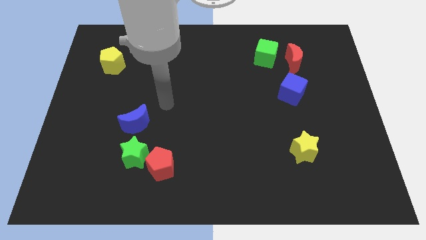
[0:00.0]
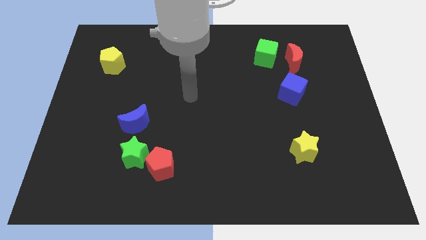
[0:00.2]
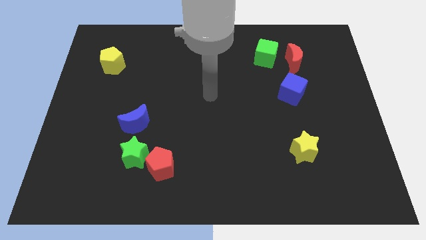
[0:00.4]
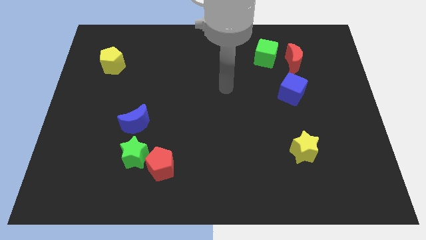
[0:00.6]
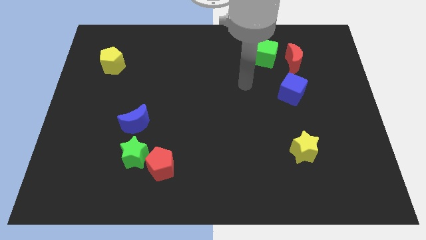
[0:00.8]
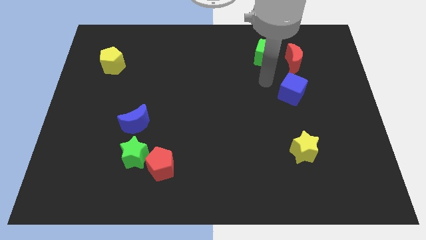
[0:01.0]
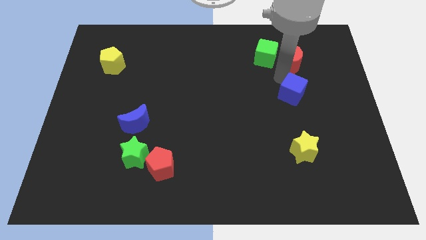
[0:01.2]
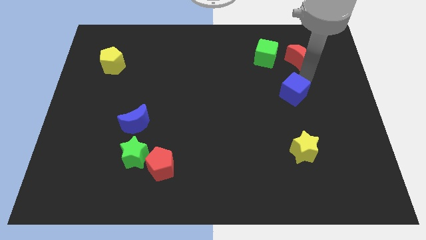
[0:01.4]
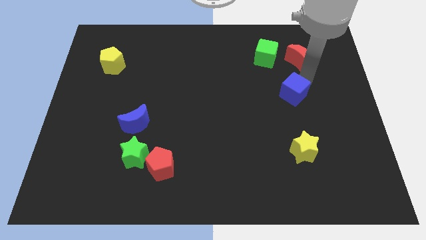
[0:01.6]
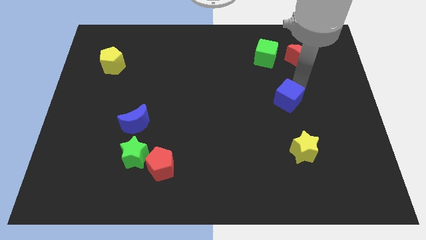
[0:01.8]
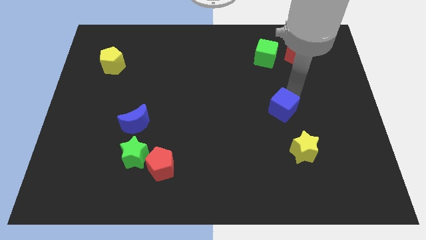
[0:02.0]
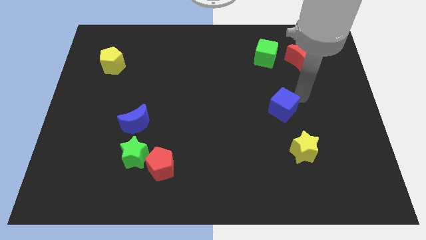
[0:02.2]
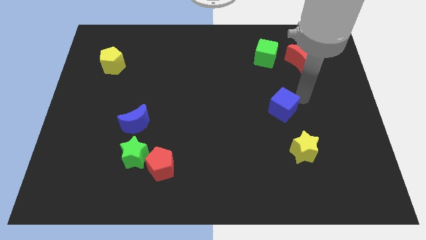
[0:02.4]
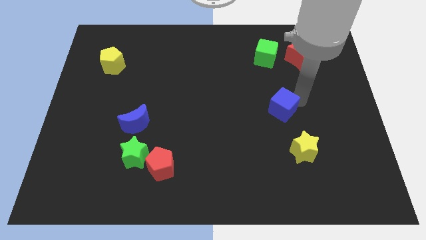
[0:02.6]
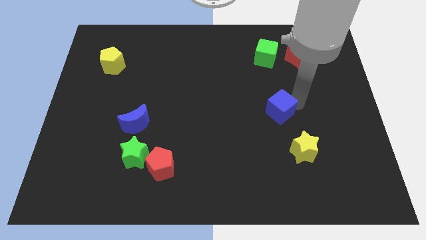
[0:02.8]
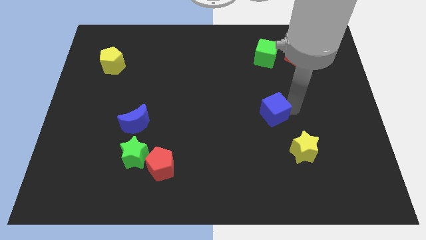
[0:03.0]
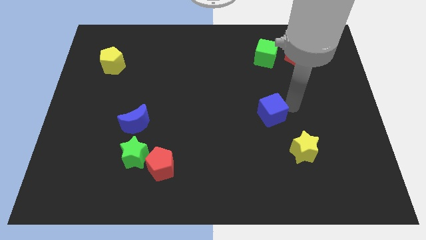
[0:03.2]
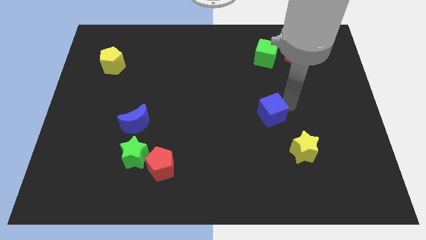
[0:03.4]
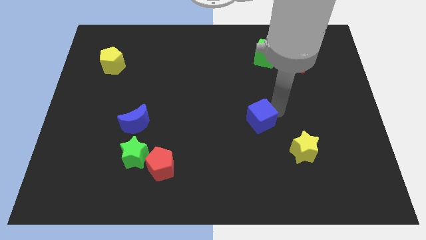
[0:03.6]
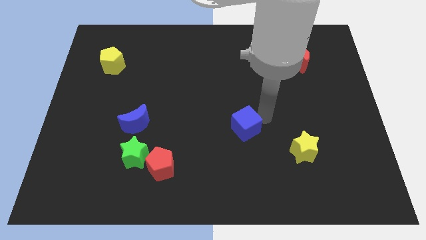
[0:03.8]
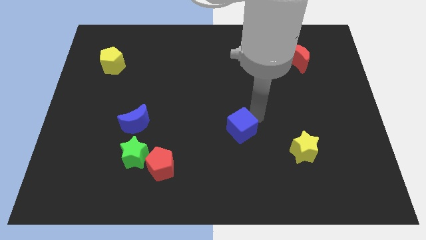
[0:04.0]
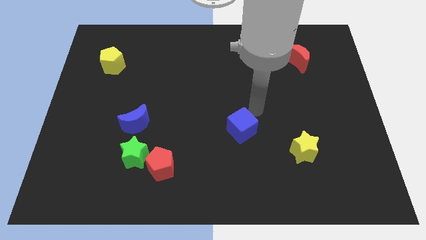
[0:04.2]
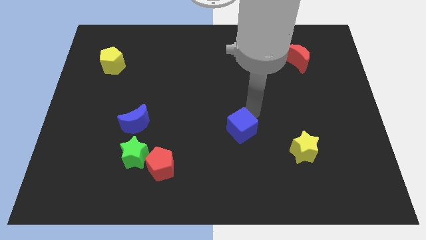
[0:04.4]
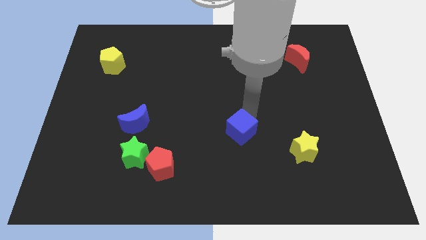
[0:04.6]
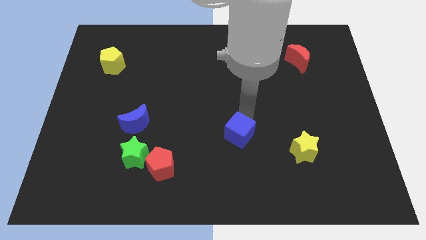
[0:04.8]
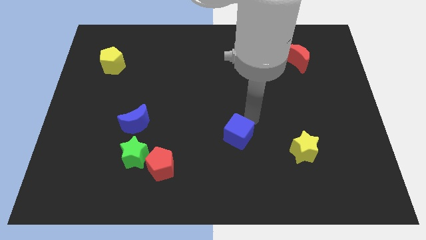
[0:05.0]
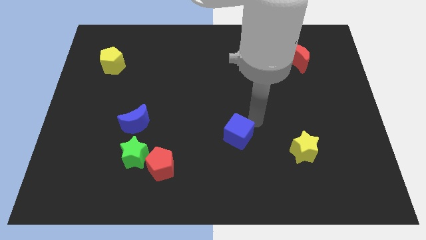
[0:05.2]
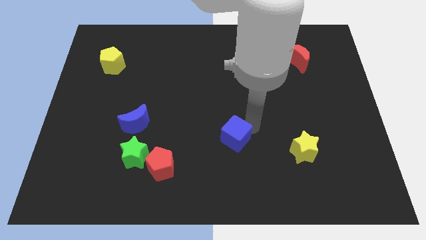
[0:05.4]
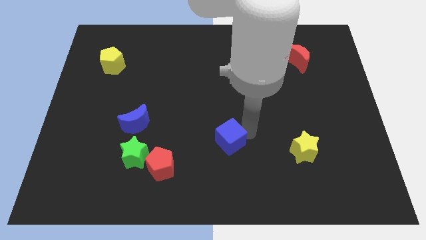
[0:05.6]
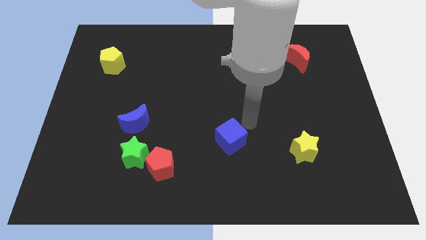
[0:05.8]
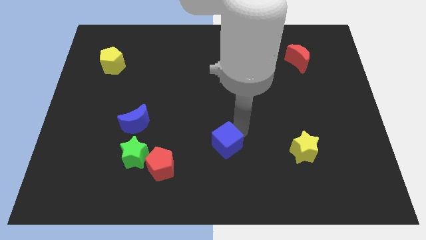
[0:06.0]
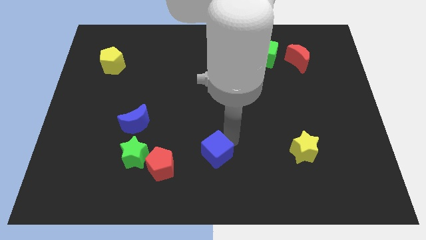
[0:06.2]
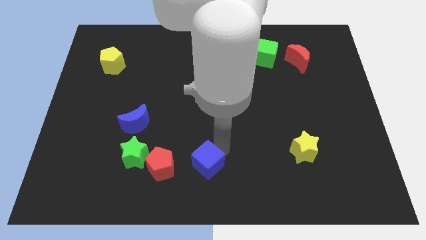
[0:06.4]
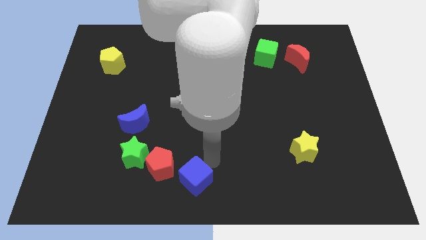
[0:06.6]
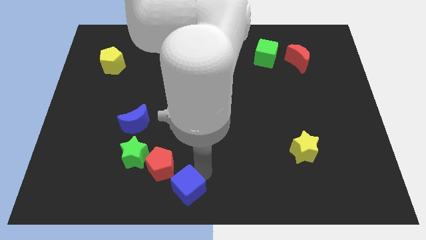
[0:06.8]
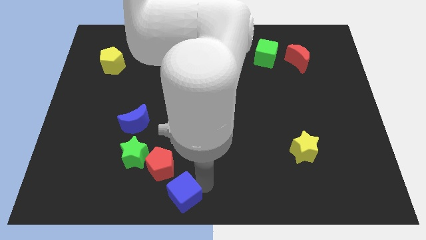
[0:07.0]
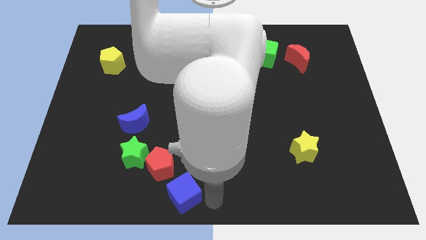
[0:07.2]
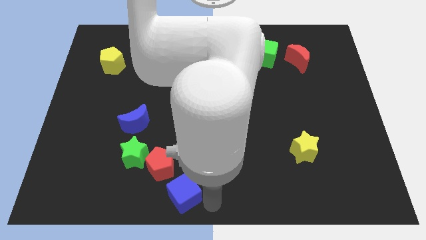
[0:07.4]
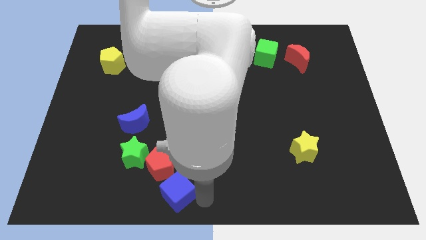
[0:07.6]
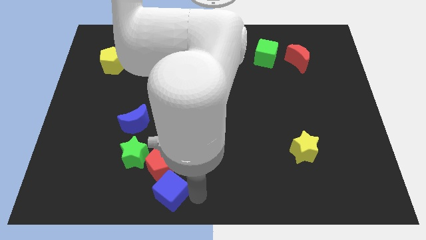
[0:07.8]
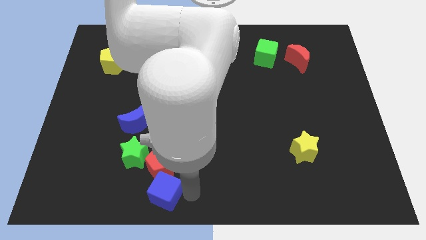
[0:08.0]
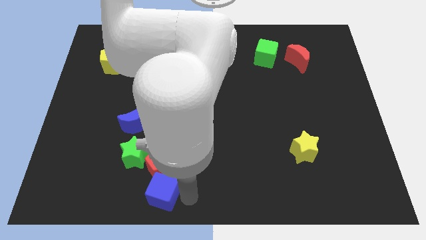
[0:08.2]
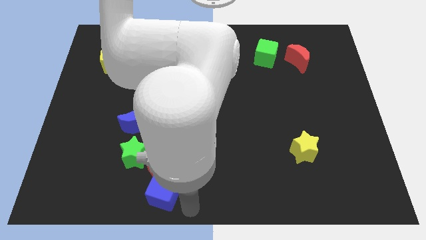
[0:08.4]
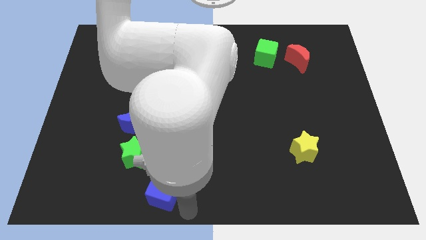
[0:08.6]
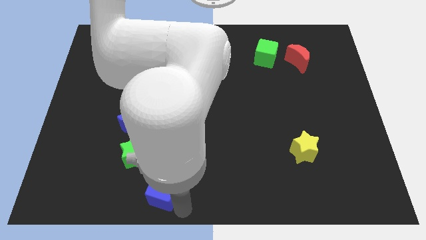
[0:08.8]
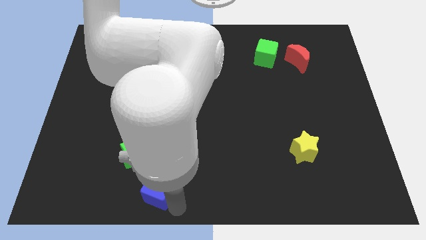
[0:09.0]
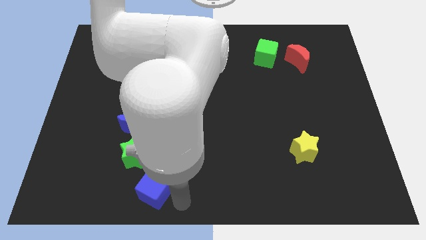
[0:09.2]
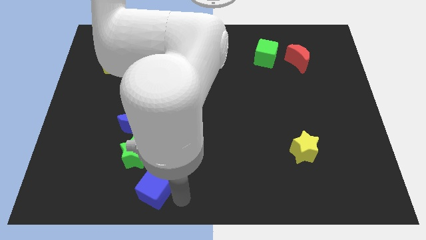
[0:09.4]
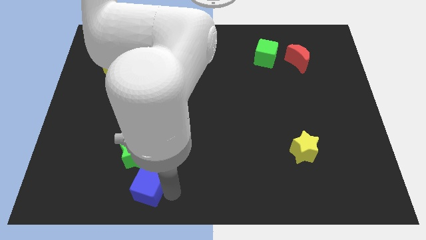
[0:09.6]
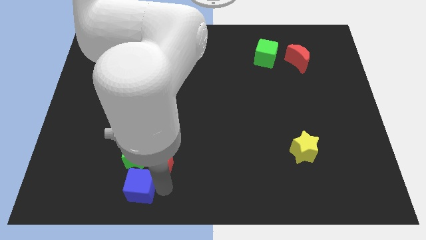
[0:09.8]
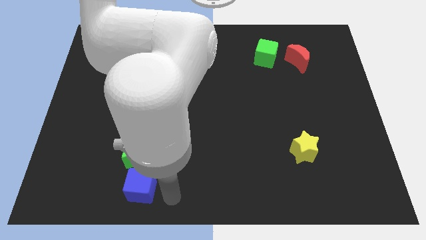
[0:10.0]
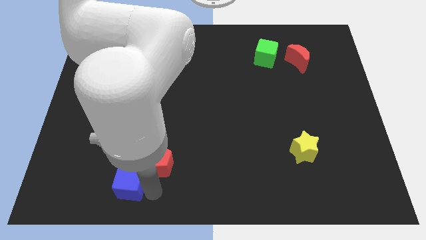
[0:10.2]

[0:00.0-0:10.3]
slide the blue cube to the bottom left of the green star

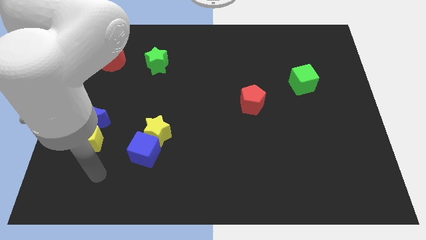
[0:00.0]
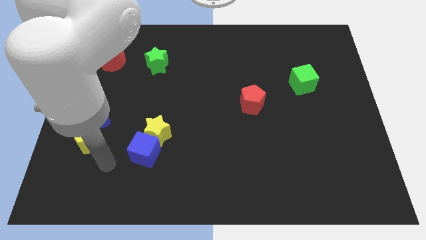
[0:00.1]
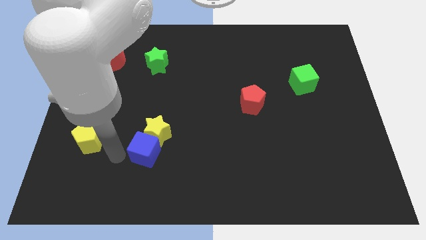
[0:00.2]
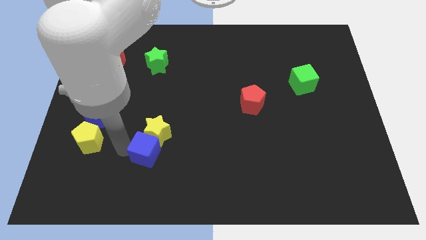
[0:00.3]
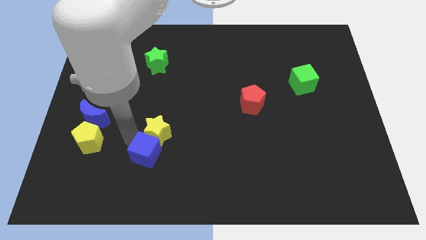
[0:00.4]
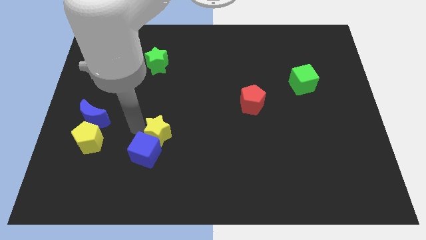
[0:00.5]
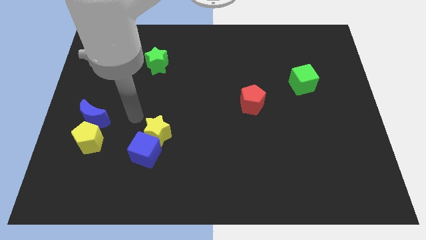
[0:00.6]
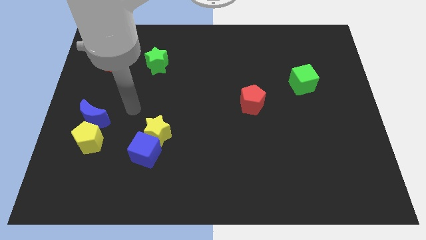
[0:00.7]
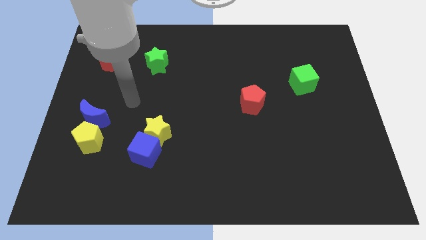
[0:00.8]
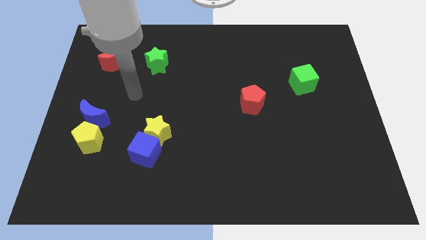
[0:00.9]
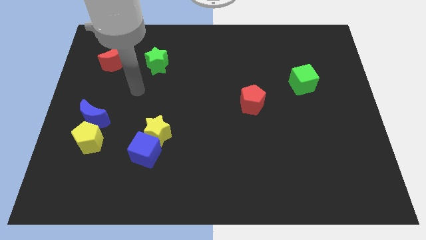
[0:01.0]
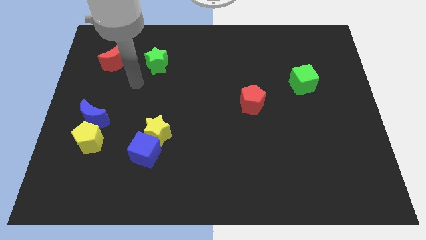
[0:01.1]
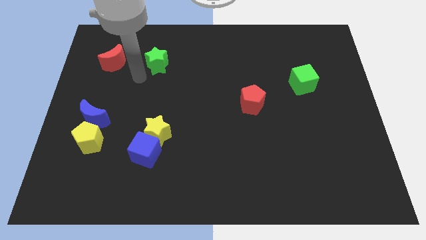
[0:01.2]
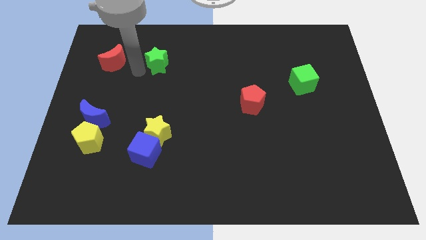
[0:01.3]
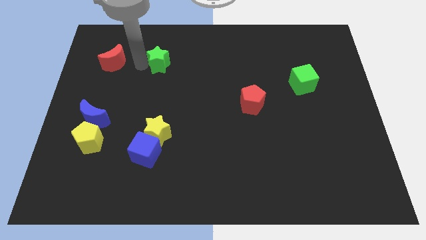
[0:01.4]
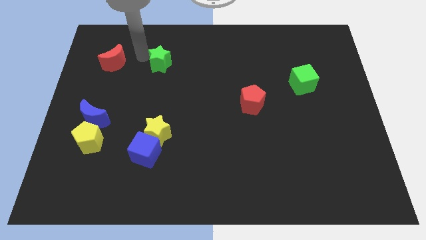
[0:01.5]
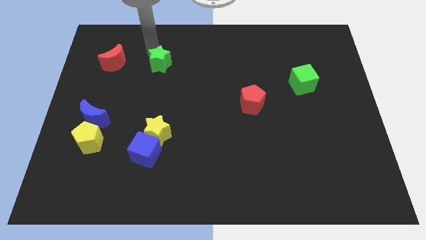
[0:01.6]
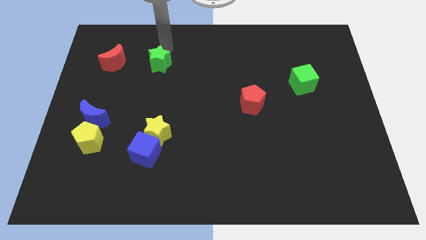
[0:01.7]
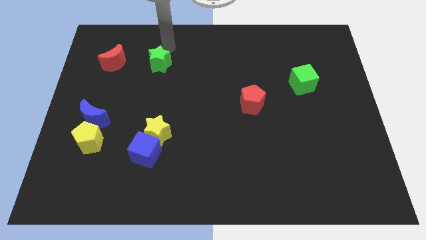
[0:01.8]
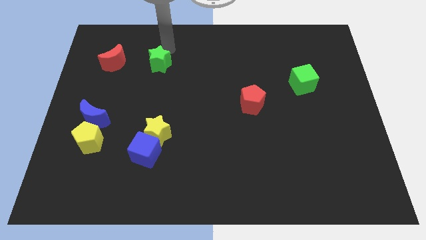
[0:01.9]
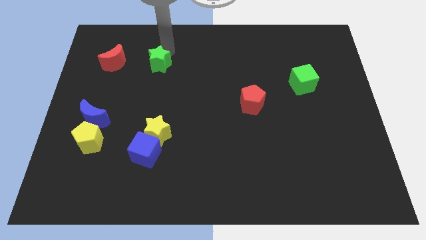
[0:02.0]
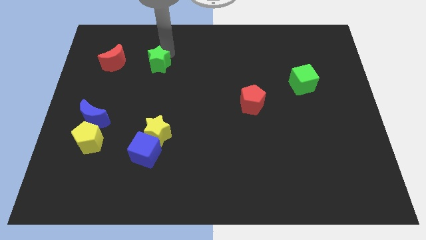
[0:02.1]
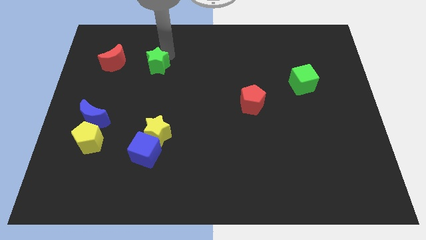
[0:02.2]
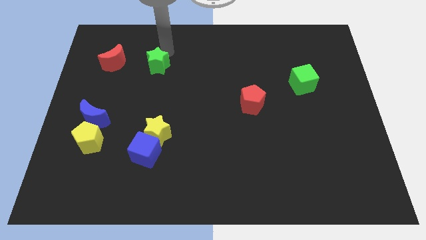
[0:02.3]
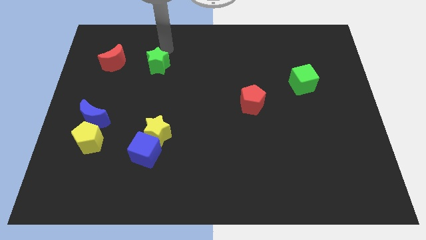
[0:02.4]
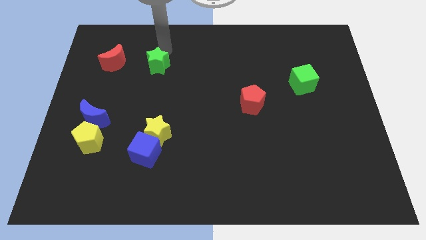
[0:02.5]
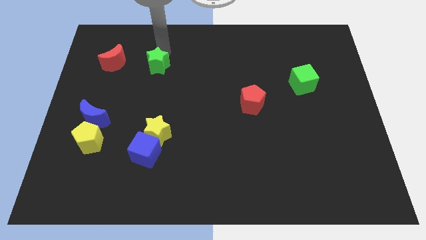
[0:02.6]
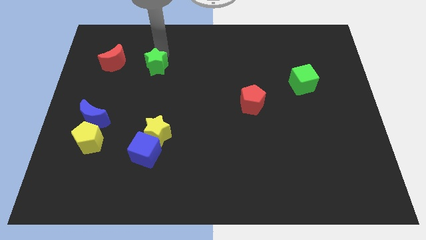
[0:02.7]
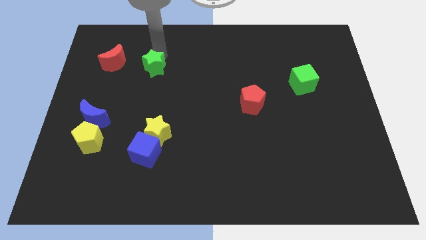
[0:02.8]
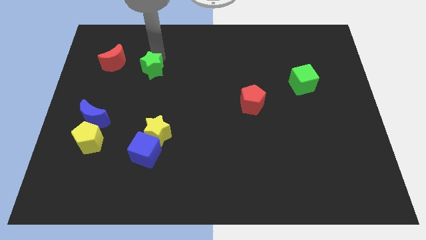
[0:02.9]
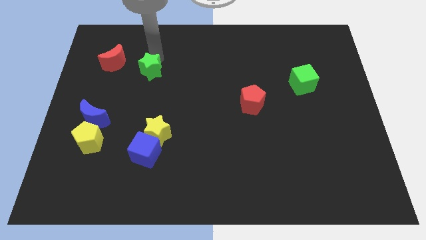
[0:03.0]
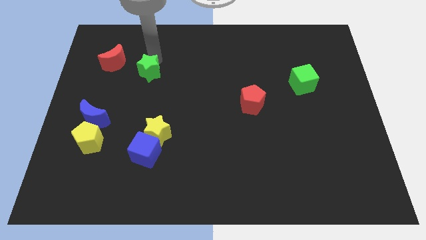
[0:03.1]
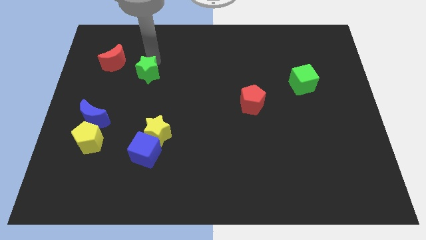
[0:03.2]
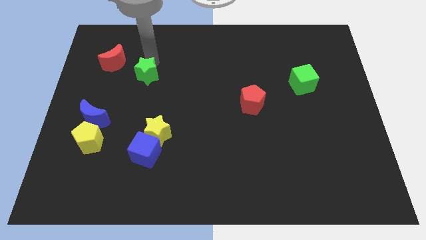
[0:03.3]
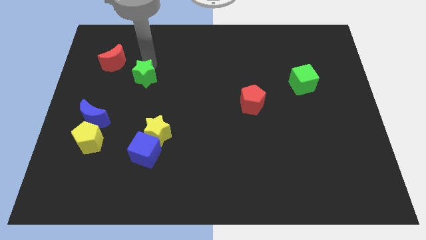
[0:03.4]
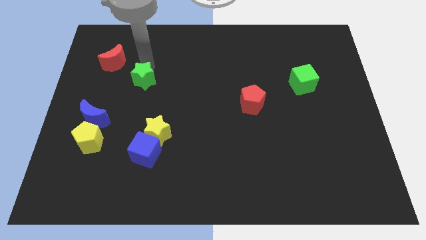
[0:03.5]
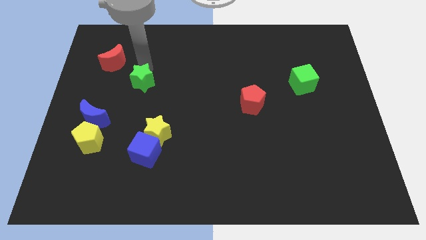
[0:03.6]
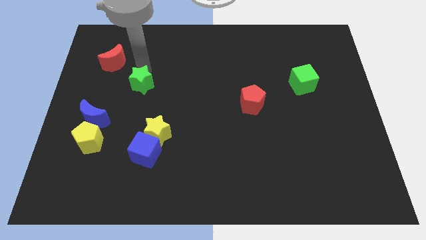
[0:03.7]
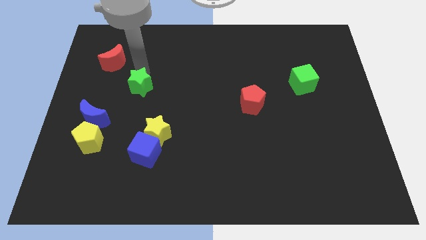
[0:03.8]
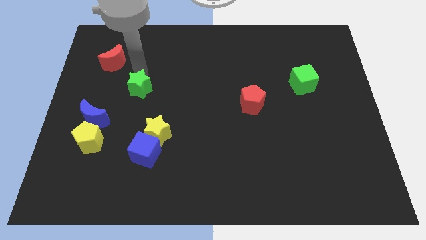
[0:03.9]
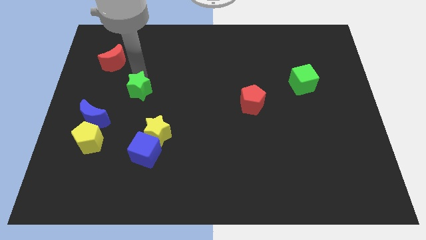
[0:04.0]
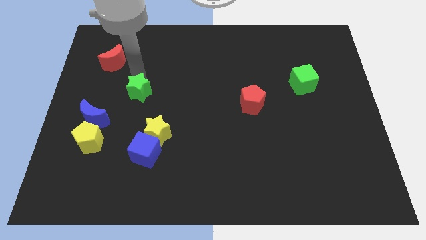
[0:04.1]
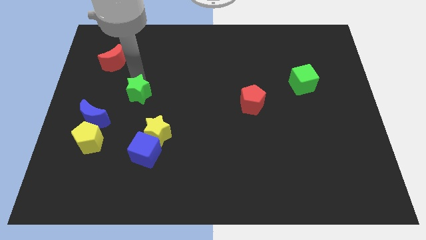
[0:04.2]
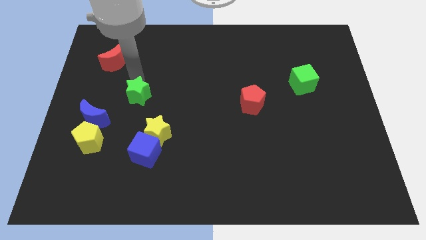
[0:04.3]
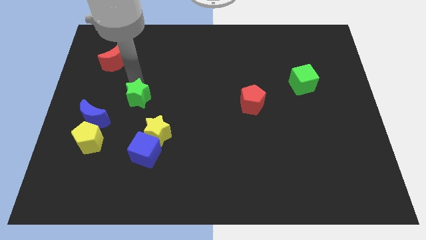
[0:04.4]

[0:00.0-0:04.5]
slide the green star to the top left of the yellow star
